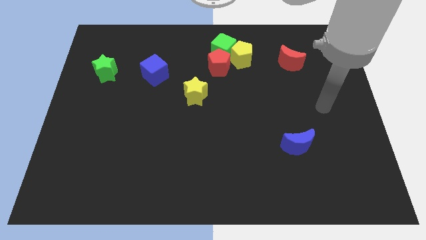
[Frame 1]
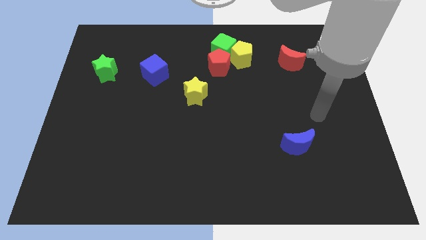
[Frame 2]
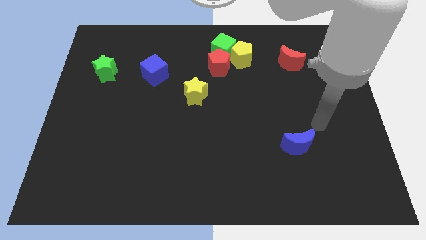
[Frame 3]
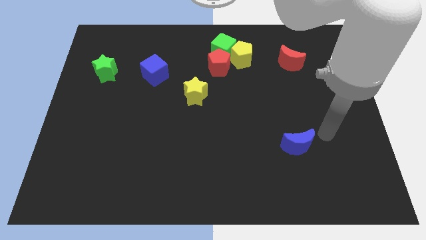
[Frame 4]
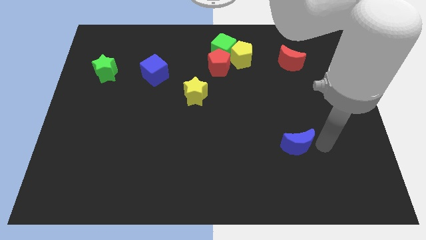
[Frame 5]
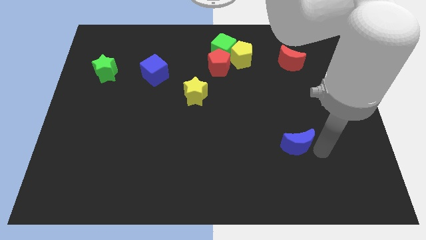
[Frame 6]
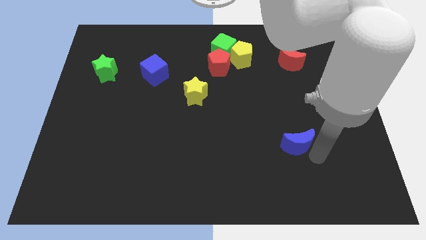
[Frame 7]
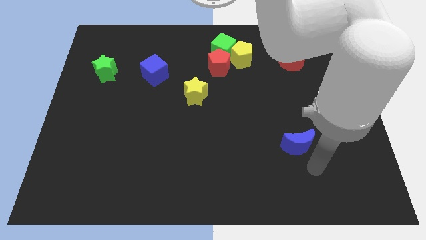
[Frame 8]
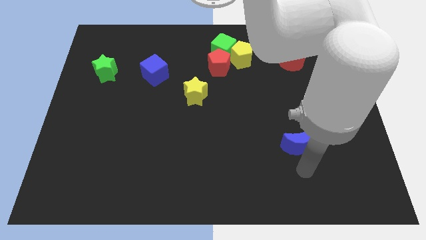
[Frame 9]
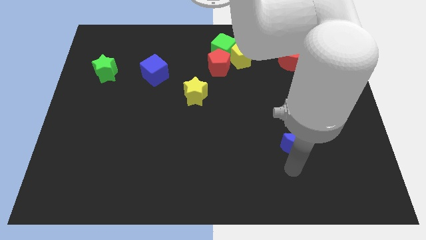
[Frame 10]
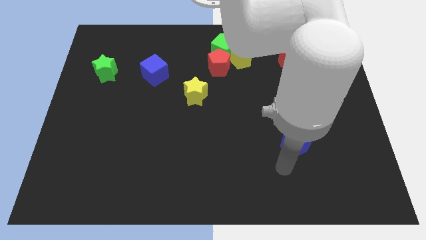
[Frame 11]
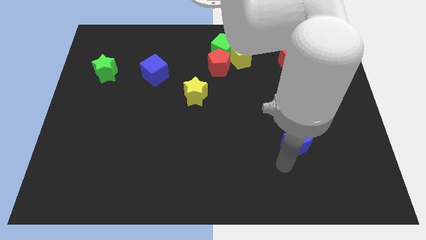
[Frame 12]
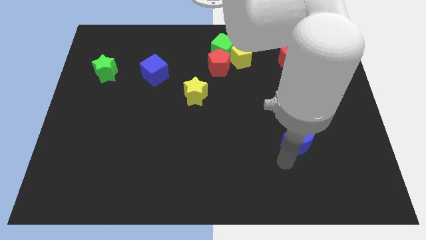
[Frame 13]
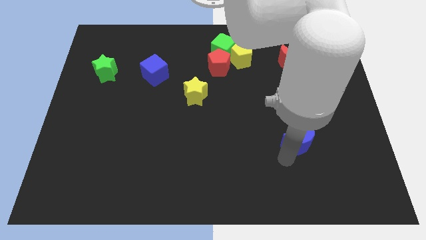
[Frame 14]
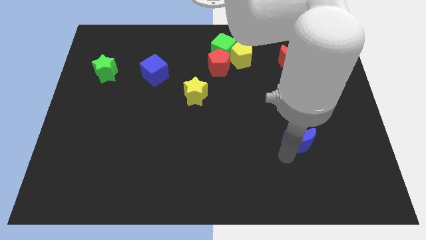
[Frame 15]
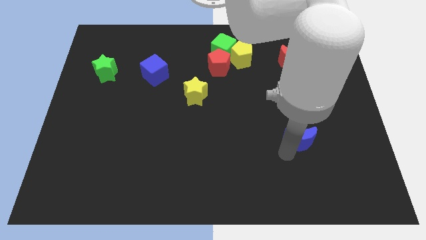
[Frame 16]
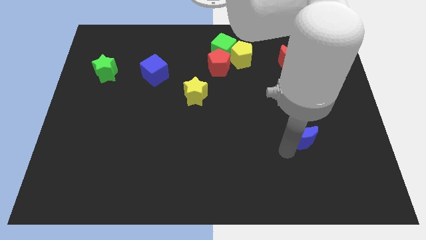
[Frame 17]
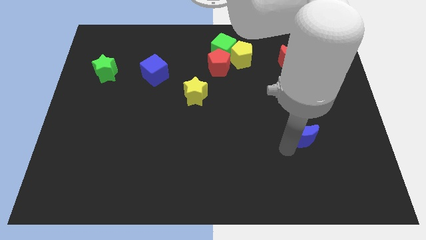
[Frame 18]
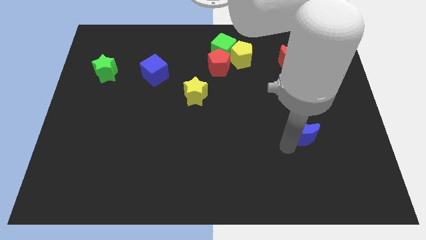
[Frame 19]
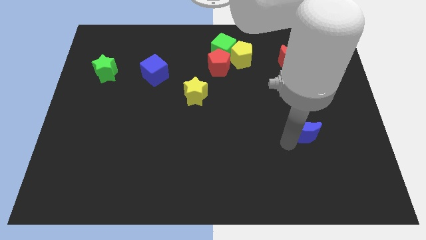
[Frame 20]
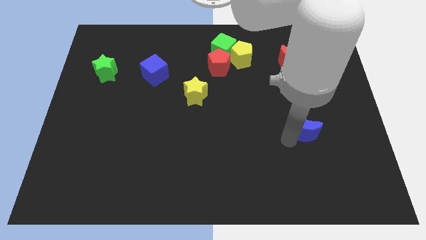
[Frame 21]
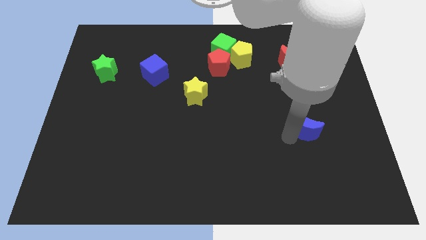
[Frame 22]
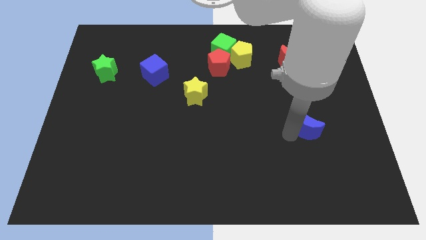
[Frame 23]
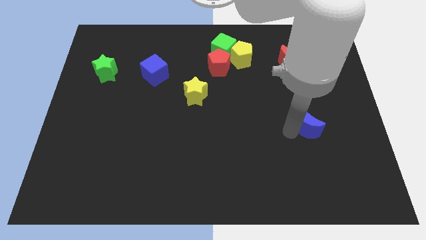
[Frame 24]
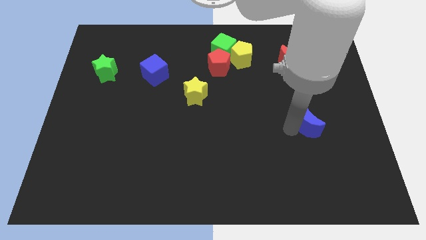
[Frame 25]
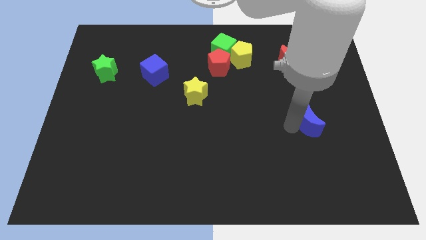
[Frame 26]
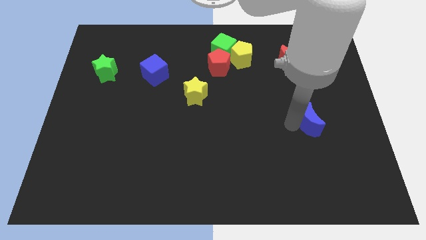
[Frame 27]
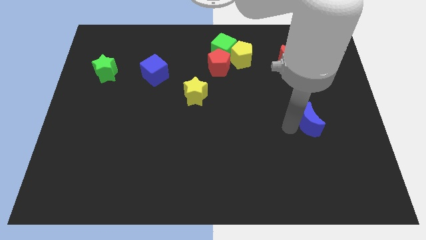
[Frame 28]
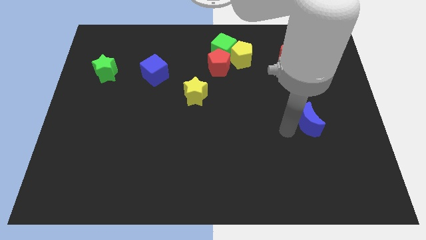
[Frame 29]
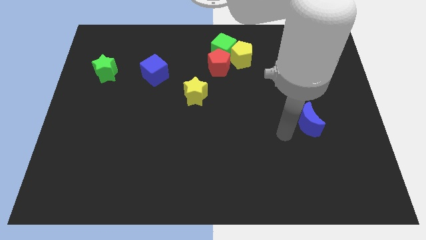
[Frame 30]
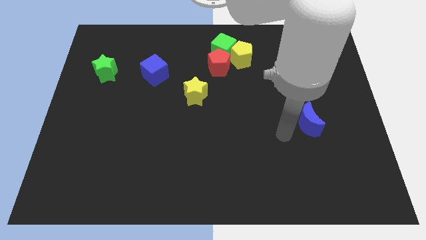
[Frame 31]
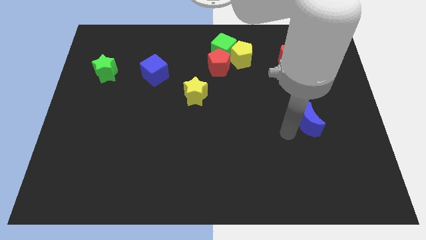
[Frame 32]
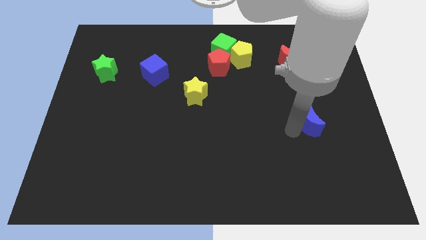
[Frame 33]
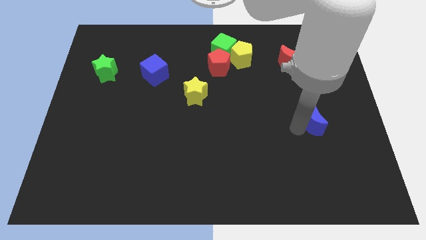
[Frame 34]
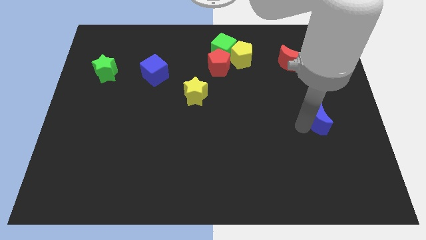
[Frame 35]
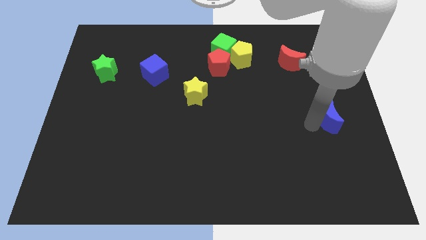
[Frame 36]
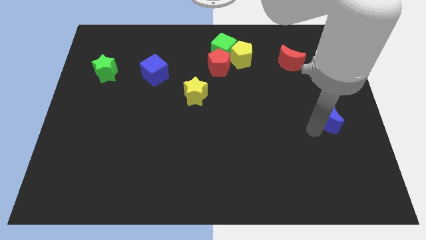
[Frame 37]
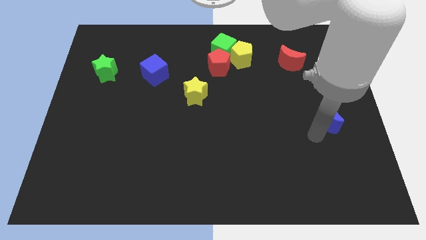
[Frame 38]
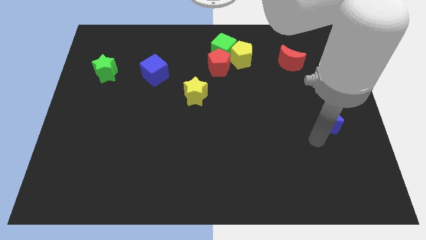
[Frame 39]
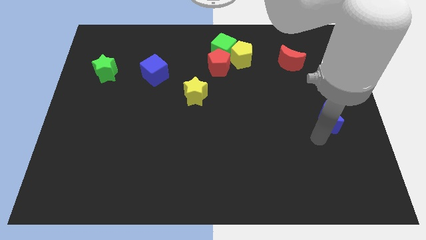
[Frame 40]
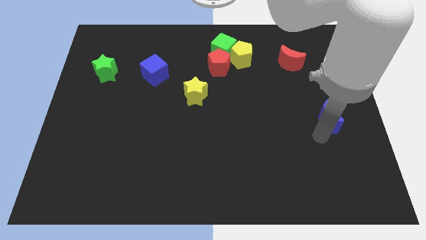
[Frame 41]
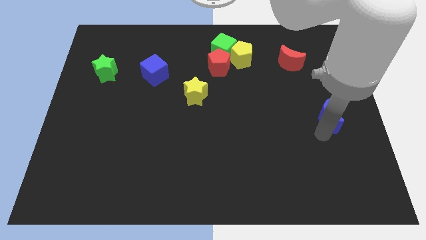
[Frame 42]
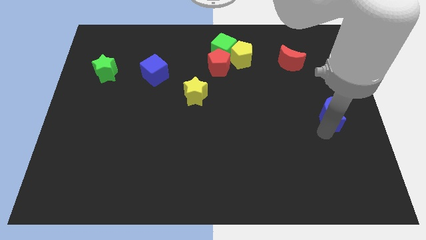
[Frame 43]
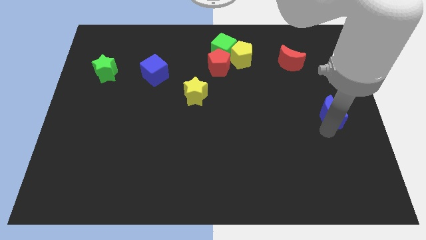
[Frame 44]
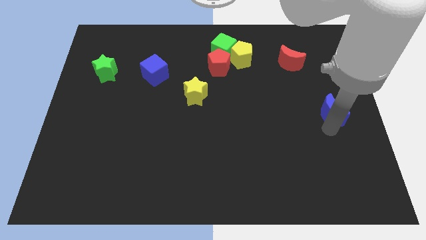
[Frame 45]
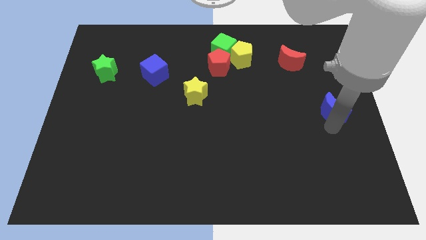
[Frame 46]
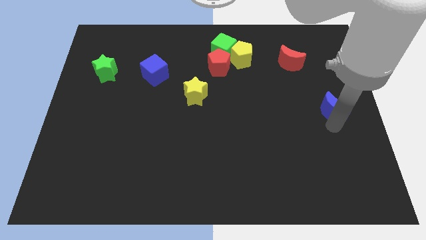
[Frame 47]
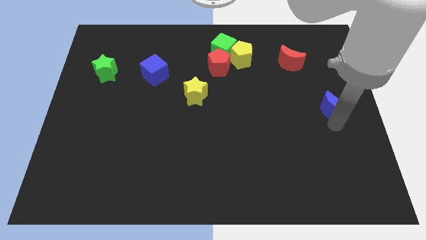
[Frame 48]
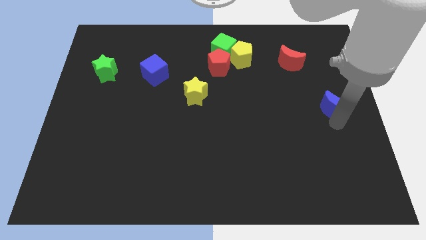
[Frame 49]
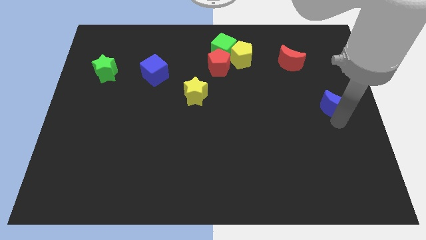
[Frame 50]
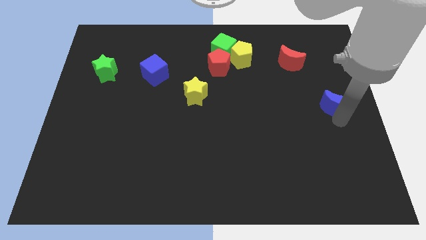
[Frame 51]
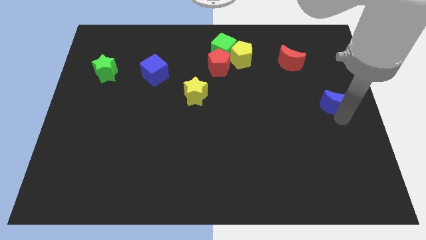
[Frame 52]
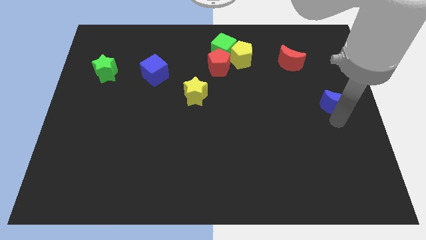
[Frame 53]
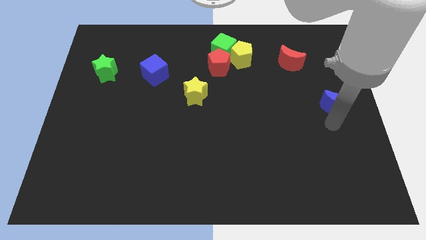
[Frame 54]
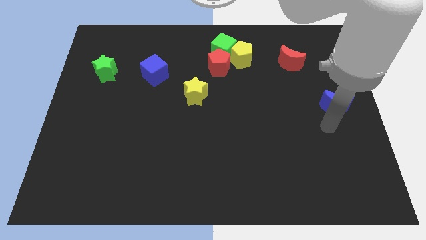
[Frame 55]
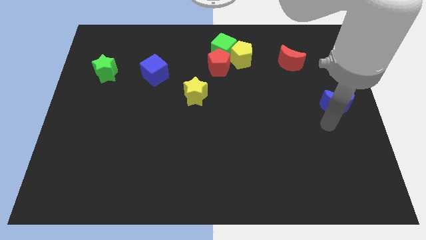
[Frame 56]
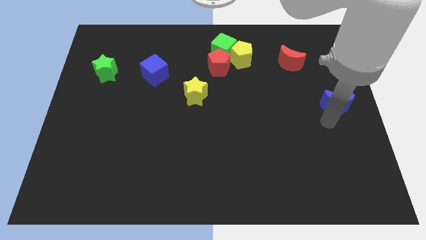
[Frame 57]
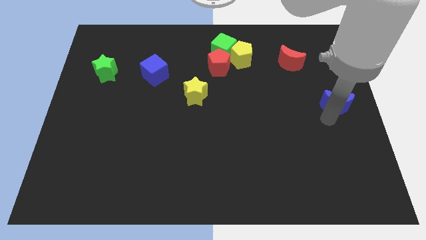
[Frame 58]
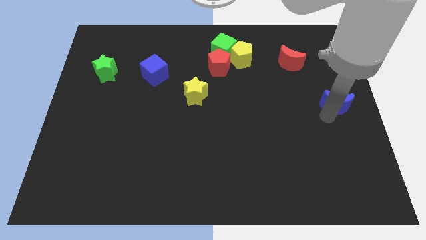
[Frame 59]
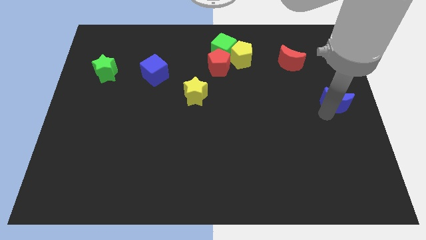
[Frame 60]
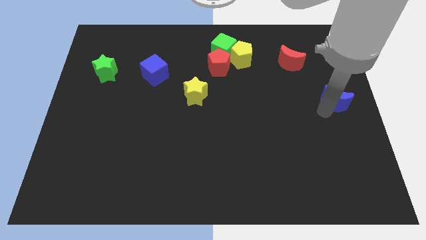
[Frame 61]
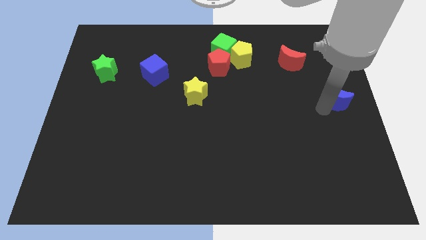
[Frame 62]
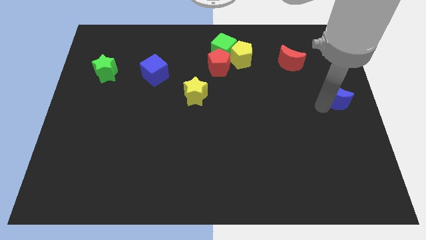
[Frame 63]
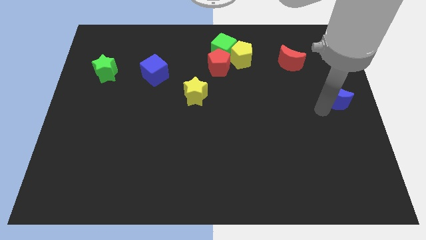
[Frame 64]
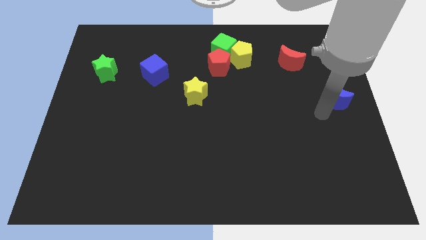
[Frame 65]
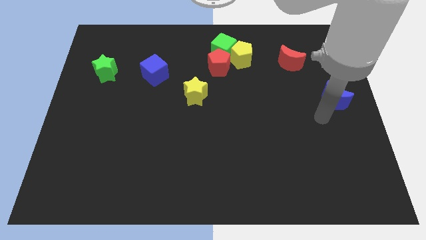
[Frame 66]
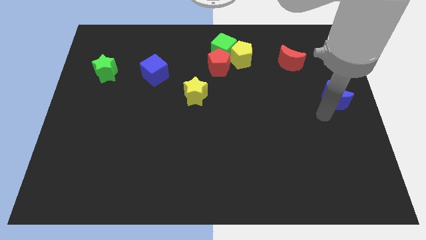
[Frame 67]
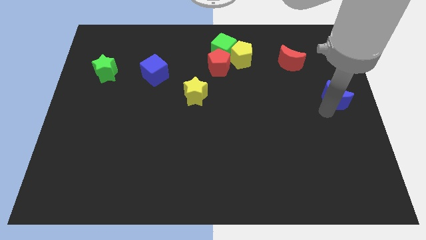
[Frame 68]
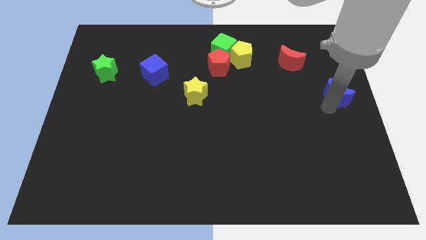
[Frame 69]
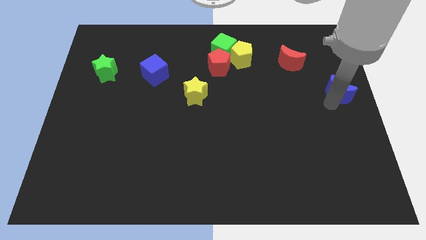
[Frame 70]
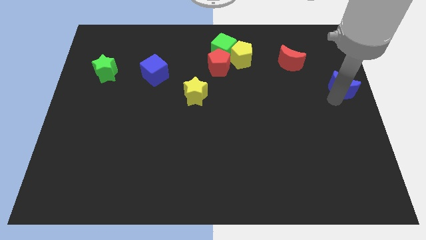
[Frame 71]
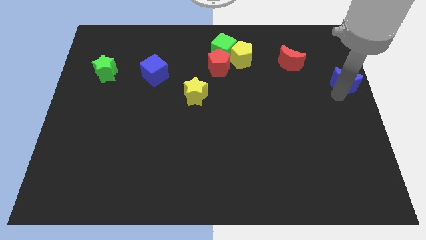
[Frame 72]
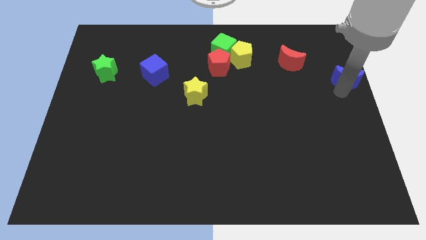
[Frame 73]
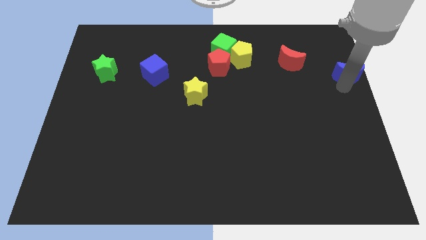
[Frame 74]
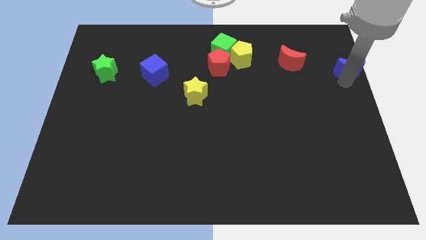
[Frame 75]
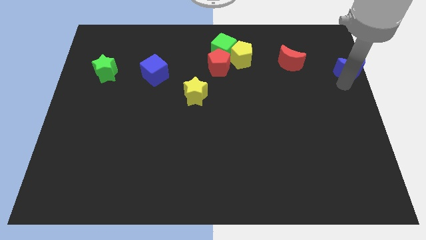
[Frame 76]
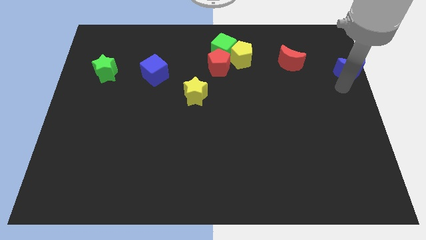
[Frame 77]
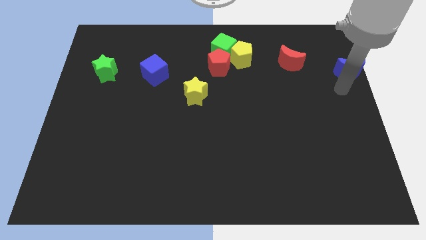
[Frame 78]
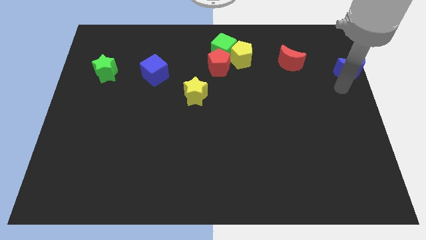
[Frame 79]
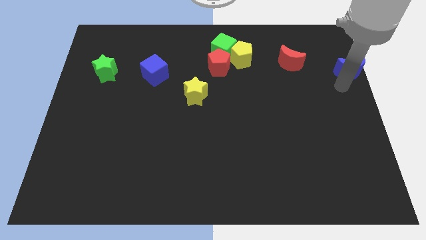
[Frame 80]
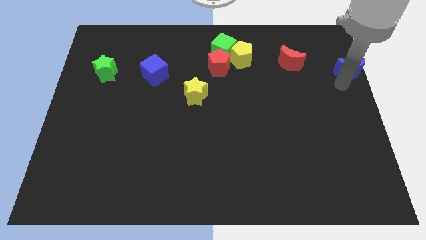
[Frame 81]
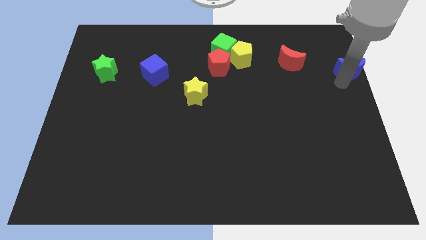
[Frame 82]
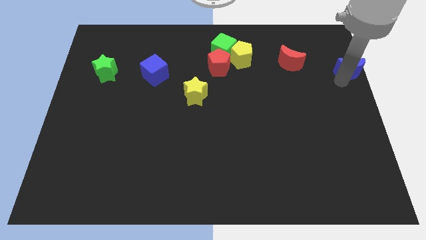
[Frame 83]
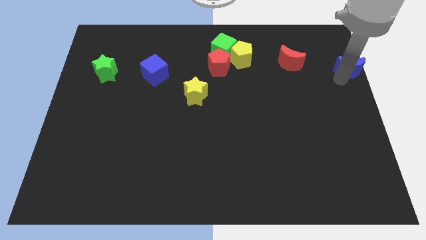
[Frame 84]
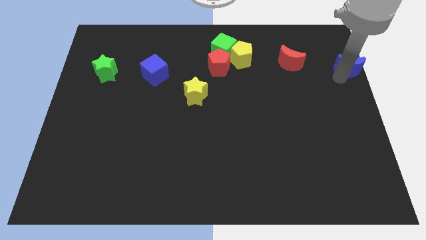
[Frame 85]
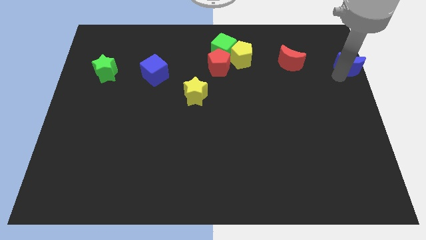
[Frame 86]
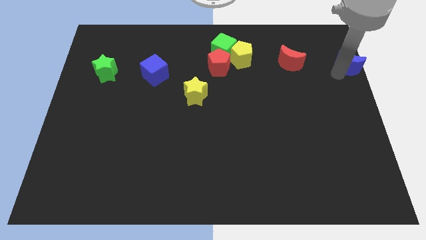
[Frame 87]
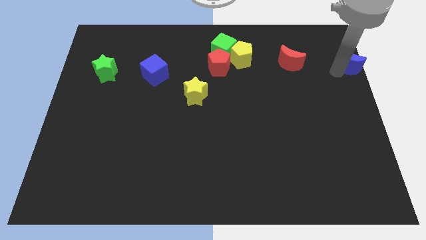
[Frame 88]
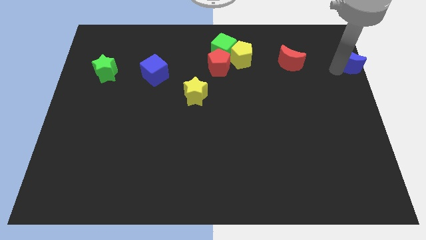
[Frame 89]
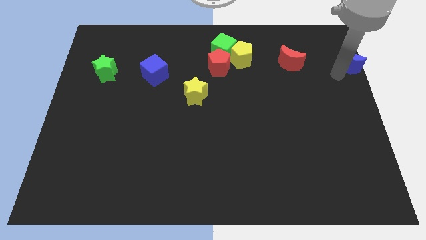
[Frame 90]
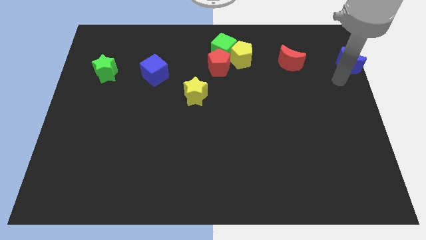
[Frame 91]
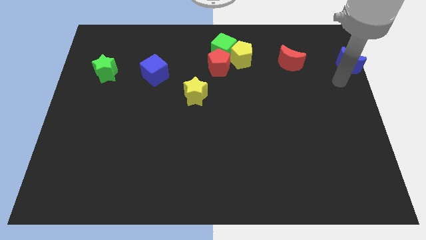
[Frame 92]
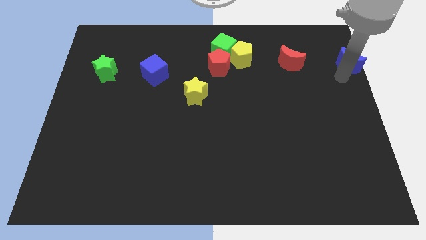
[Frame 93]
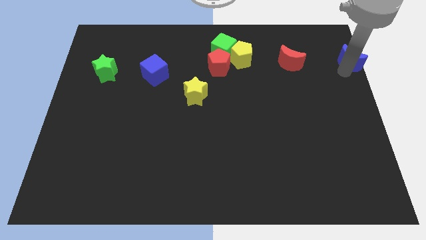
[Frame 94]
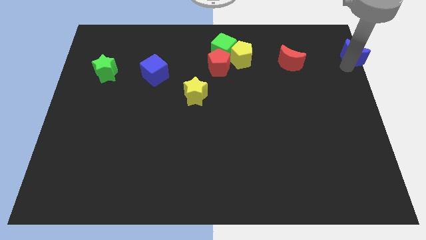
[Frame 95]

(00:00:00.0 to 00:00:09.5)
slide the blue moon to the top right
